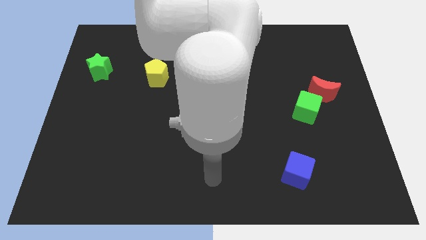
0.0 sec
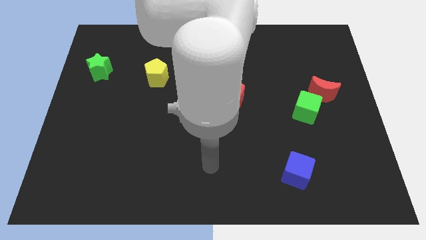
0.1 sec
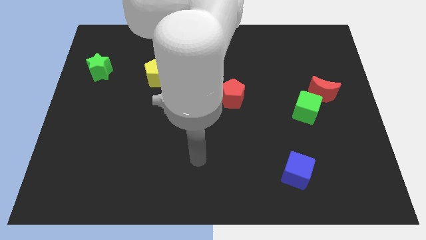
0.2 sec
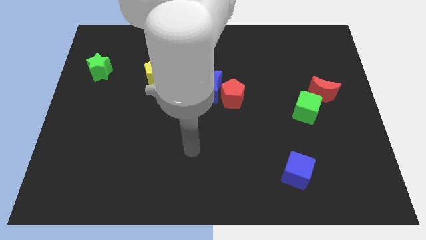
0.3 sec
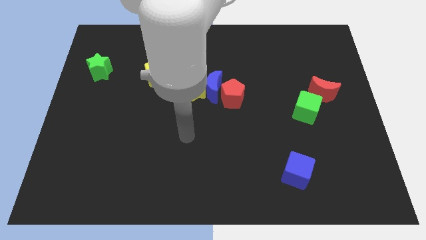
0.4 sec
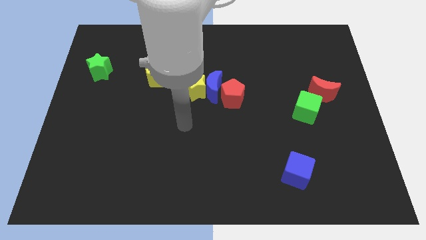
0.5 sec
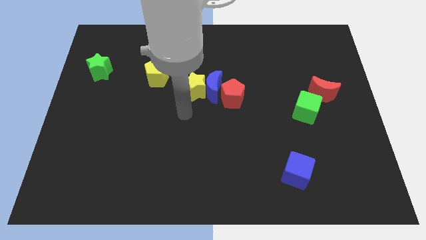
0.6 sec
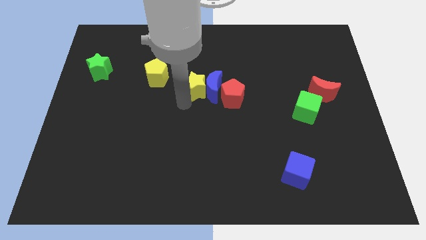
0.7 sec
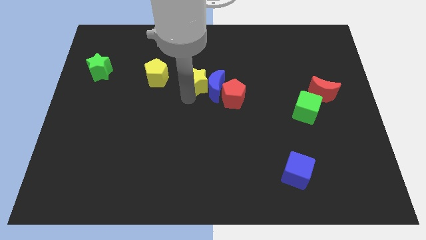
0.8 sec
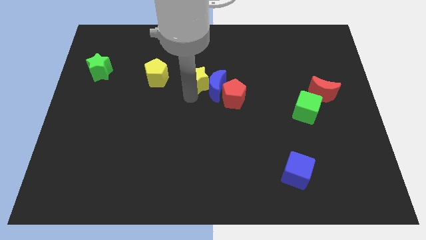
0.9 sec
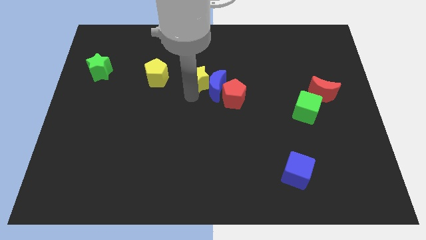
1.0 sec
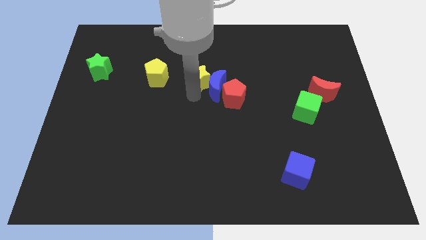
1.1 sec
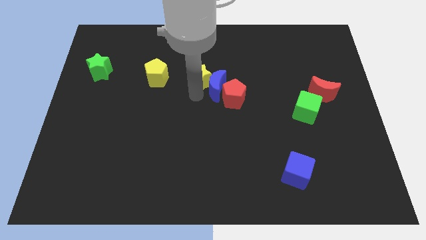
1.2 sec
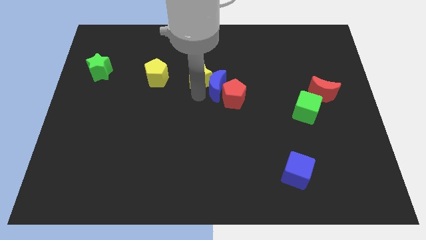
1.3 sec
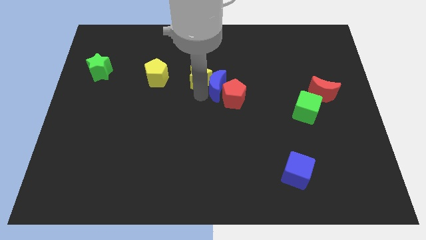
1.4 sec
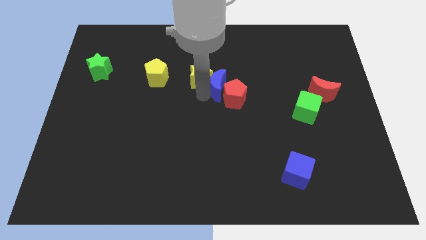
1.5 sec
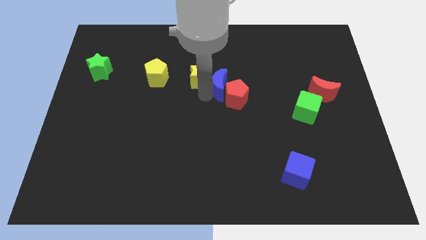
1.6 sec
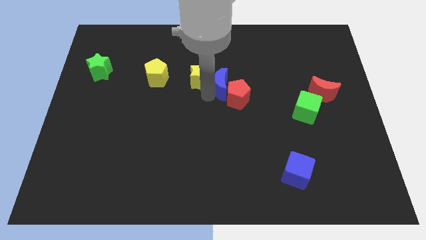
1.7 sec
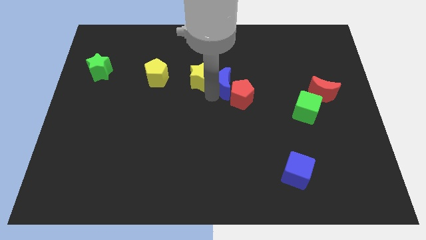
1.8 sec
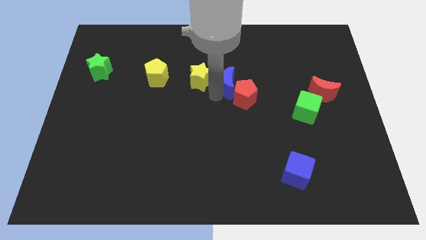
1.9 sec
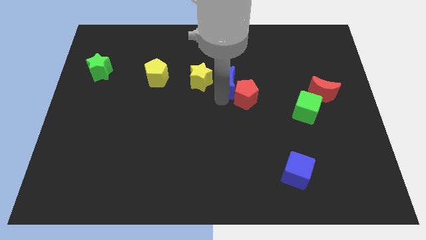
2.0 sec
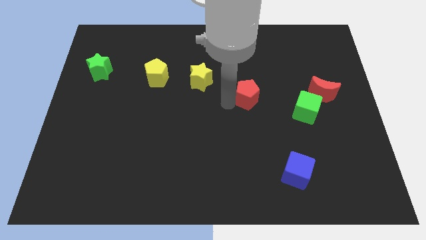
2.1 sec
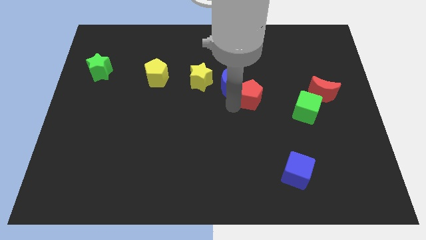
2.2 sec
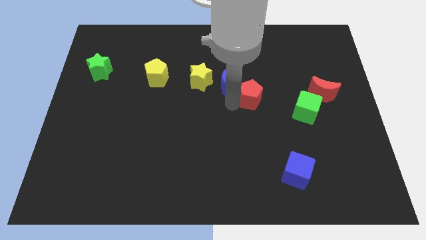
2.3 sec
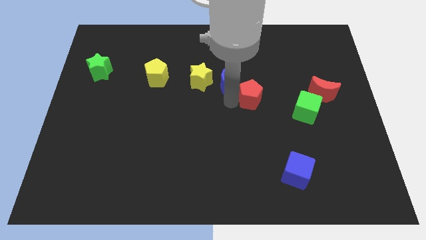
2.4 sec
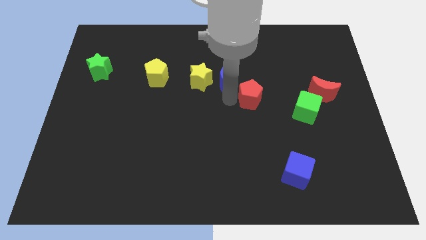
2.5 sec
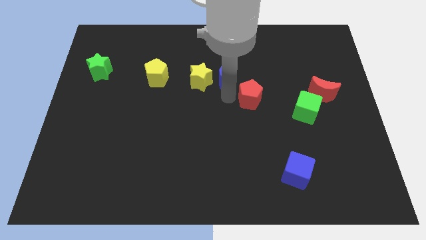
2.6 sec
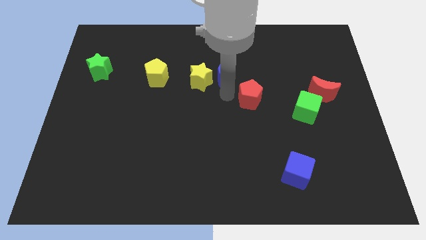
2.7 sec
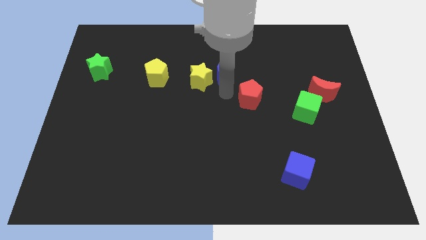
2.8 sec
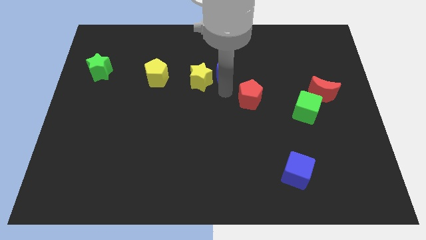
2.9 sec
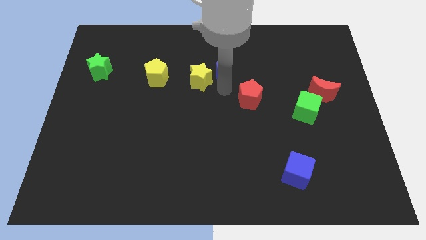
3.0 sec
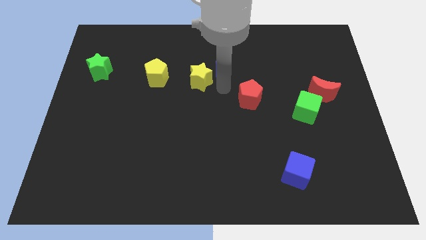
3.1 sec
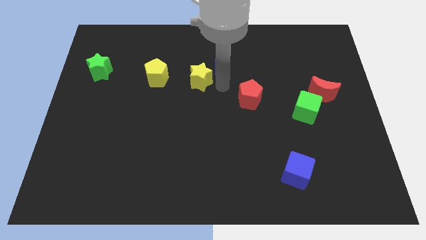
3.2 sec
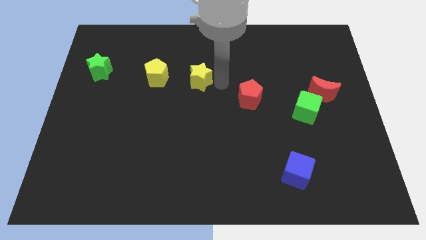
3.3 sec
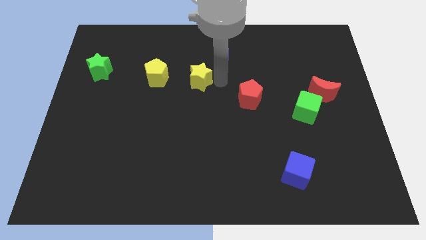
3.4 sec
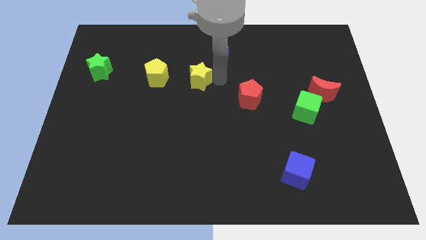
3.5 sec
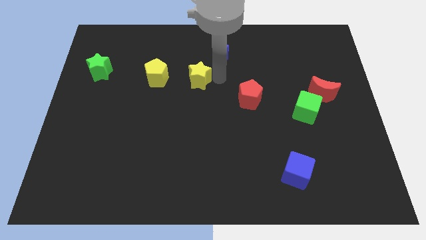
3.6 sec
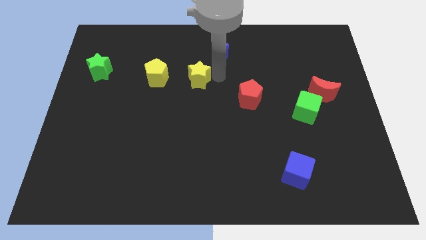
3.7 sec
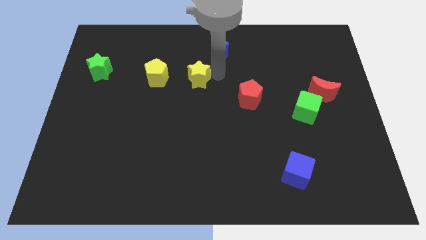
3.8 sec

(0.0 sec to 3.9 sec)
separate the blue moon from the yellow star and red pentagon

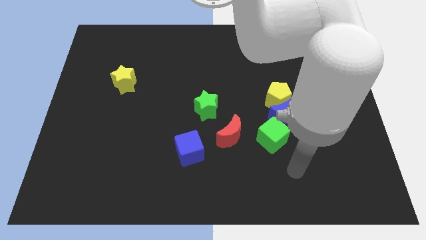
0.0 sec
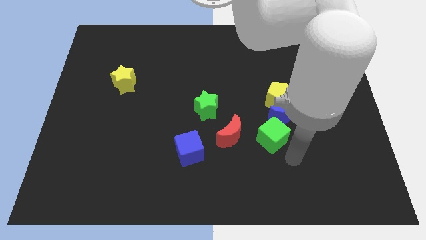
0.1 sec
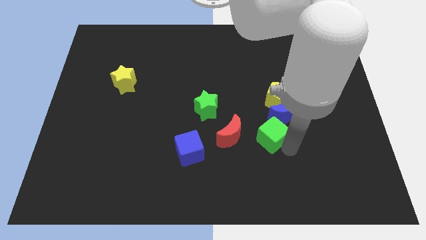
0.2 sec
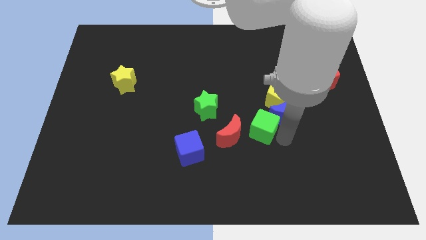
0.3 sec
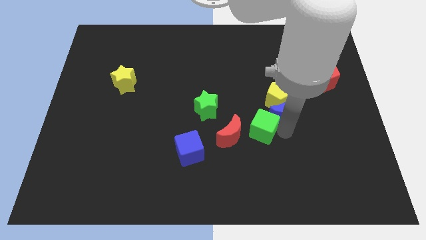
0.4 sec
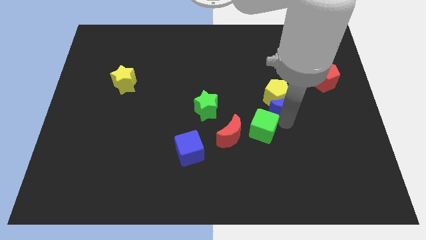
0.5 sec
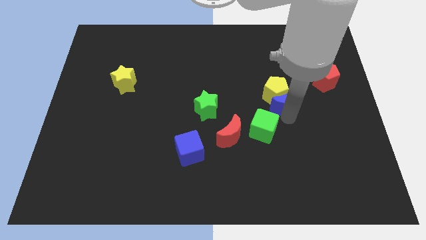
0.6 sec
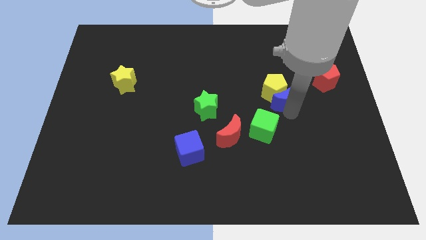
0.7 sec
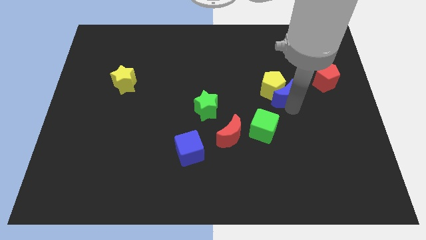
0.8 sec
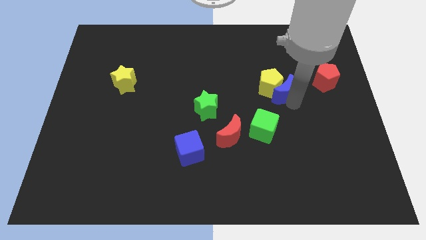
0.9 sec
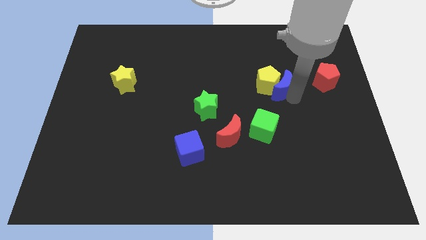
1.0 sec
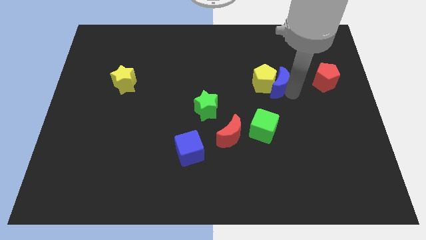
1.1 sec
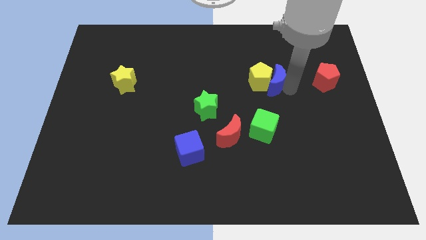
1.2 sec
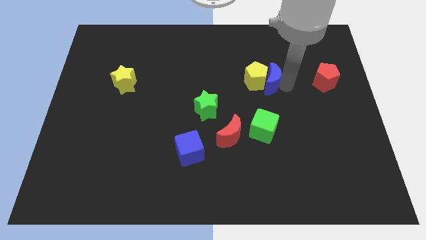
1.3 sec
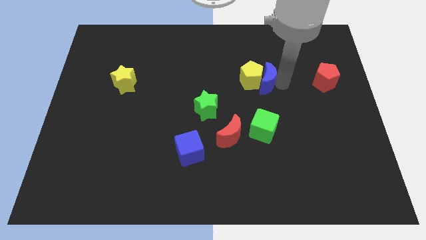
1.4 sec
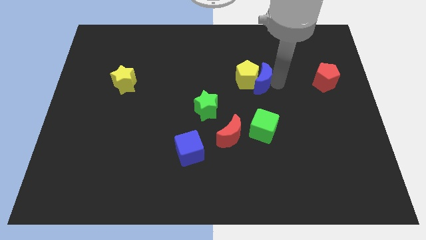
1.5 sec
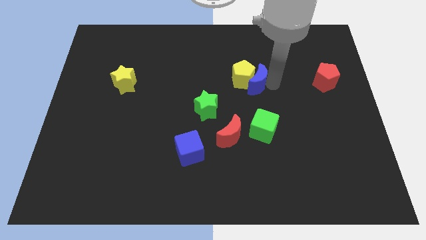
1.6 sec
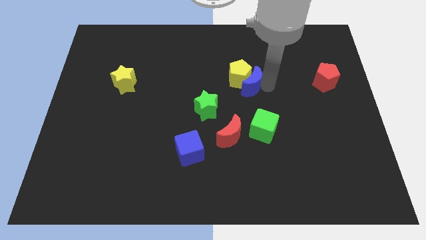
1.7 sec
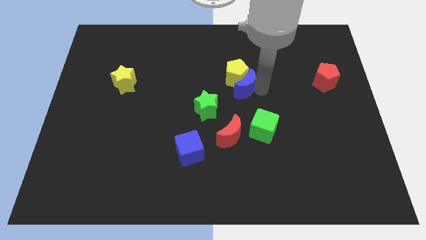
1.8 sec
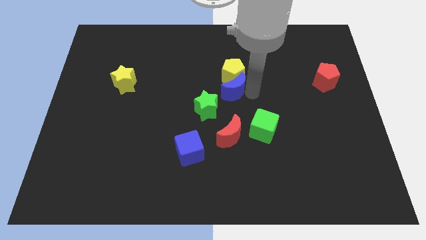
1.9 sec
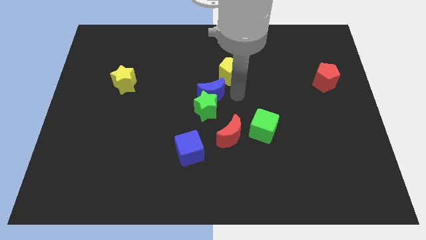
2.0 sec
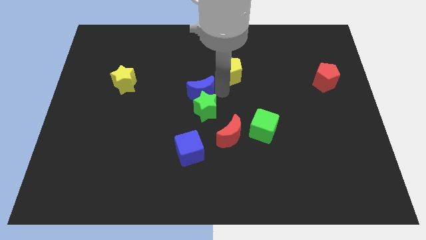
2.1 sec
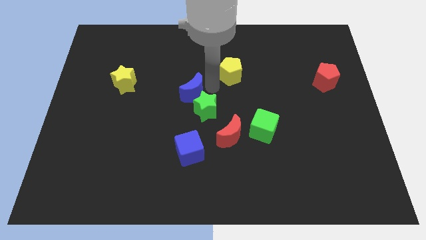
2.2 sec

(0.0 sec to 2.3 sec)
move the yellow pentagon away from the blue moon

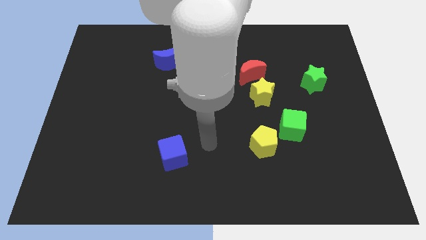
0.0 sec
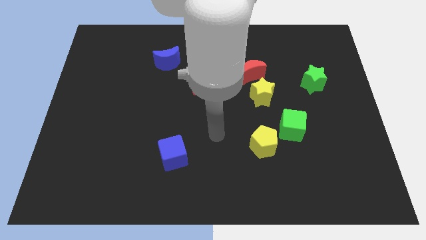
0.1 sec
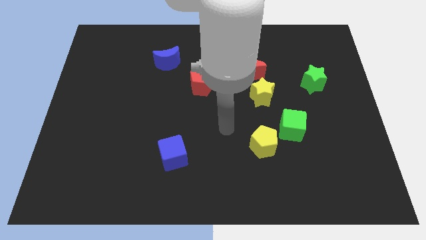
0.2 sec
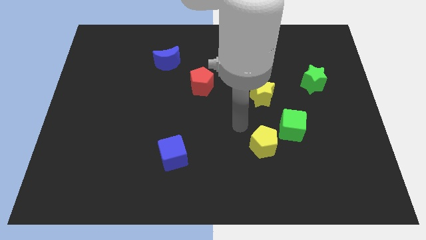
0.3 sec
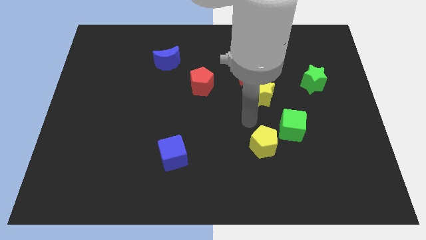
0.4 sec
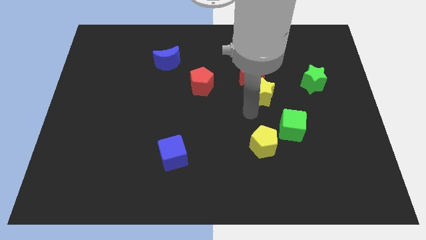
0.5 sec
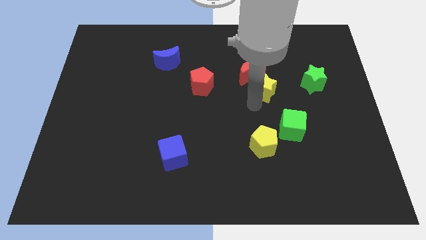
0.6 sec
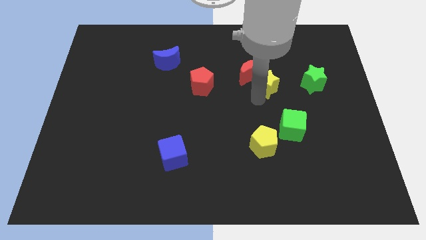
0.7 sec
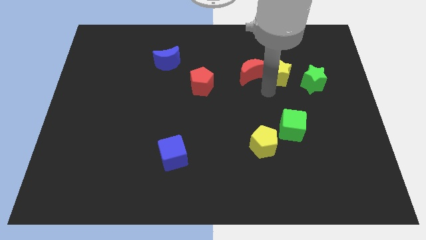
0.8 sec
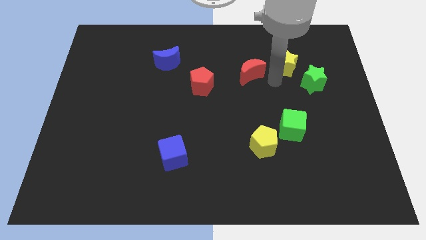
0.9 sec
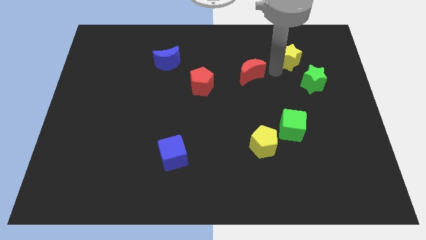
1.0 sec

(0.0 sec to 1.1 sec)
move the red moon away from the yellow star

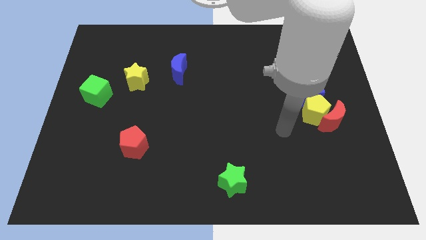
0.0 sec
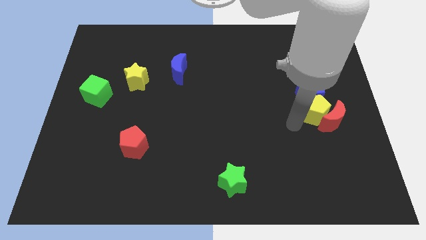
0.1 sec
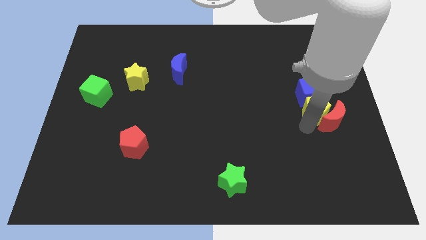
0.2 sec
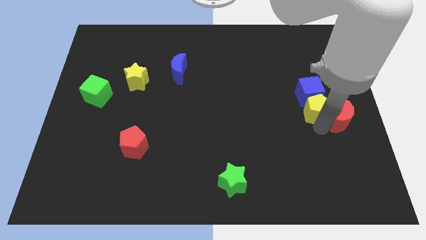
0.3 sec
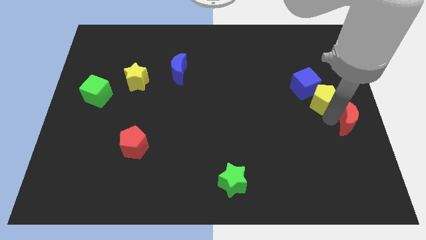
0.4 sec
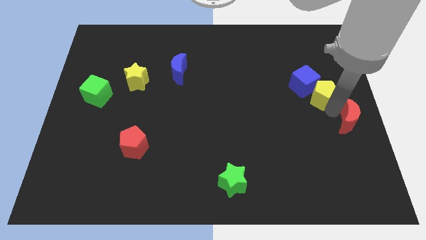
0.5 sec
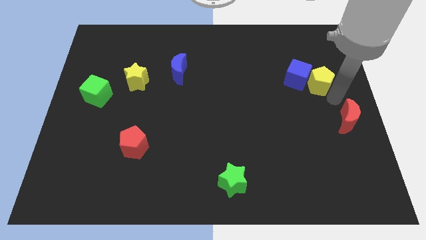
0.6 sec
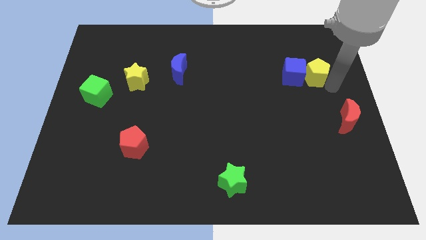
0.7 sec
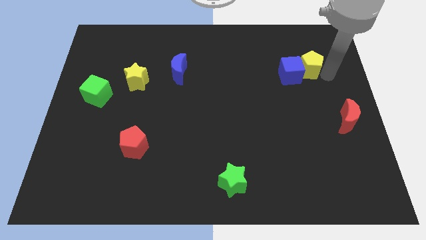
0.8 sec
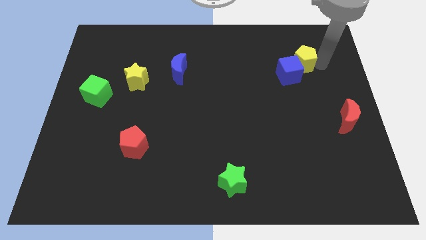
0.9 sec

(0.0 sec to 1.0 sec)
separate the yellow pentagon from the red moon and blue cube

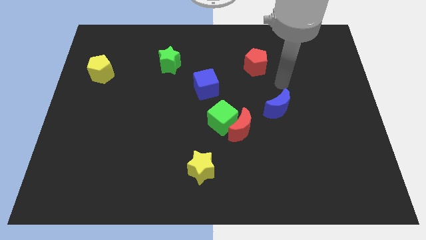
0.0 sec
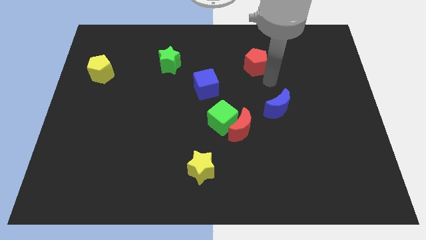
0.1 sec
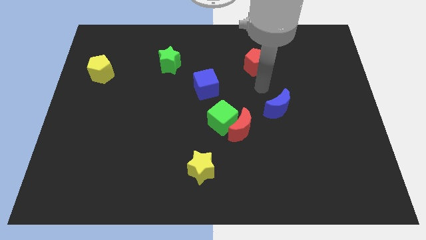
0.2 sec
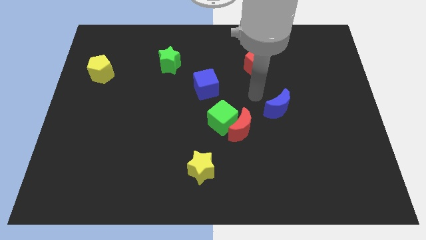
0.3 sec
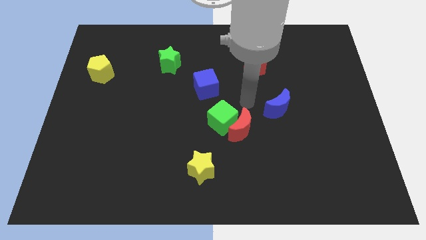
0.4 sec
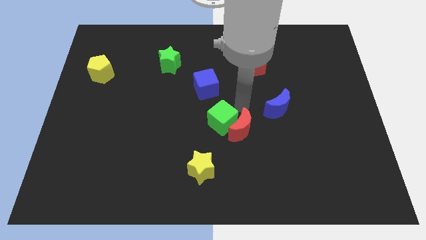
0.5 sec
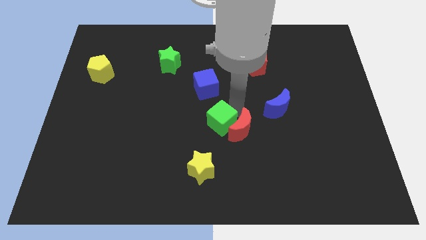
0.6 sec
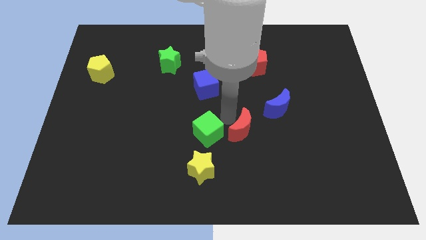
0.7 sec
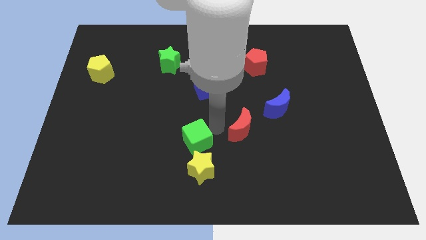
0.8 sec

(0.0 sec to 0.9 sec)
move the red moon away from the green cube
